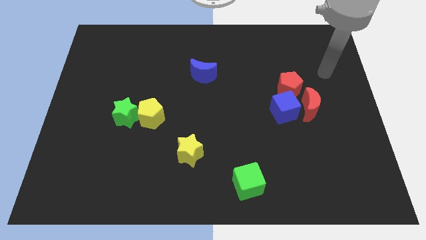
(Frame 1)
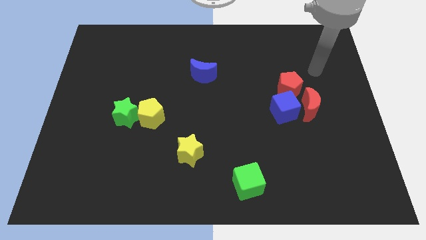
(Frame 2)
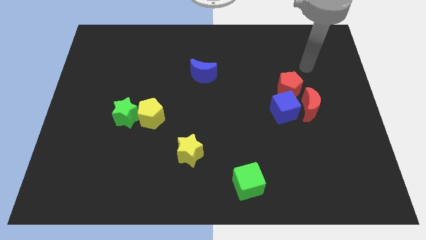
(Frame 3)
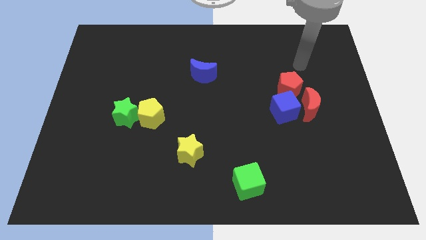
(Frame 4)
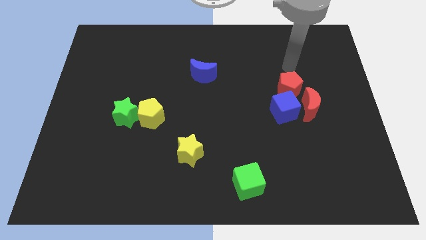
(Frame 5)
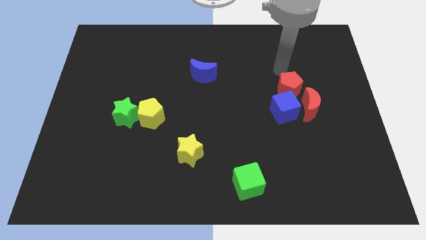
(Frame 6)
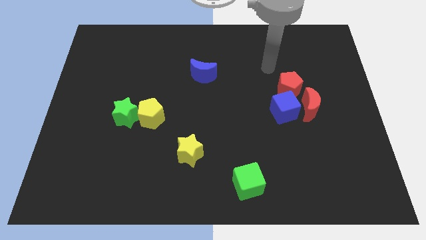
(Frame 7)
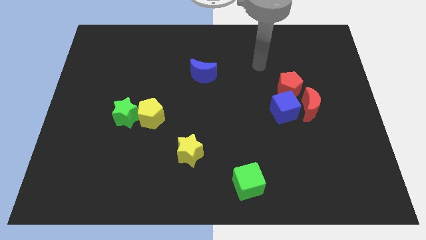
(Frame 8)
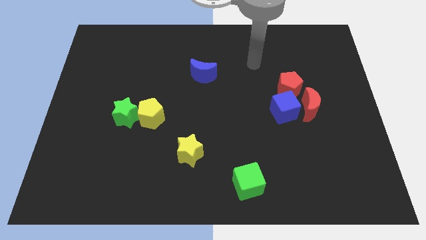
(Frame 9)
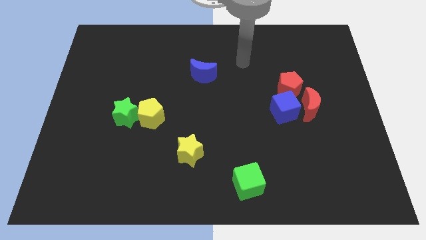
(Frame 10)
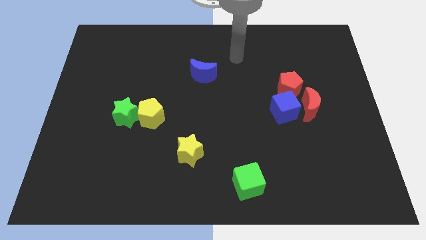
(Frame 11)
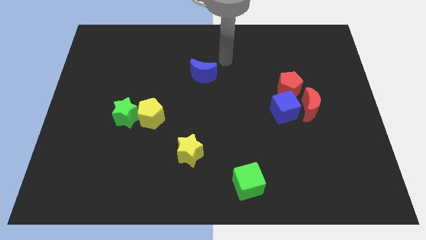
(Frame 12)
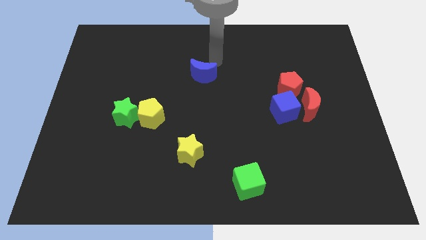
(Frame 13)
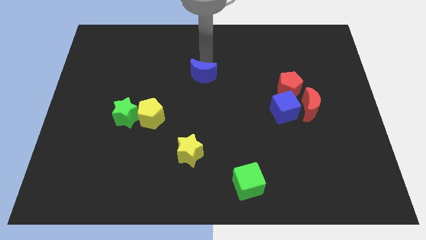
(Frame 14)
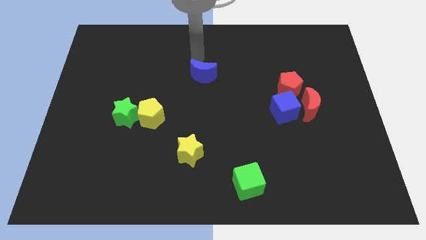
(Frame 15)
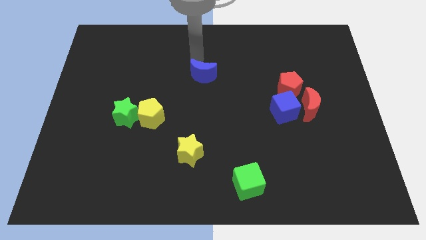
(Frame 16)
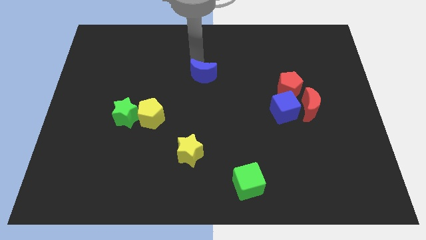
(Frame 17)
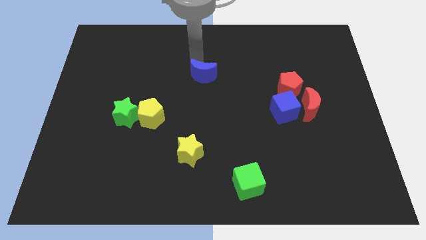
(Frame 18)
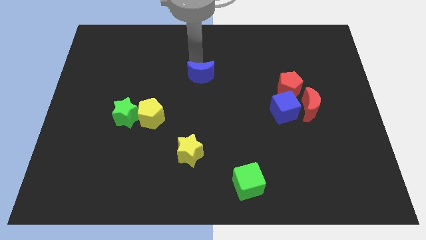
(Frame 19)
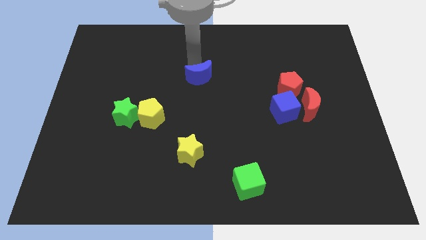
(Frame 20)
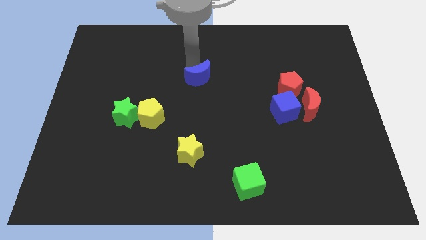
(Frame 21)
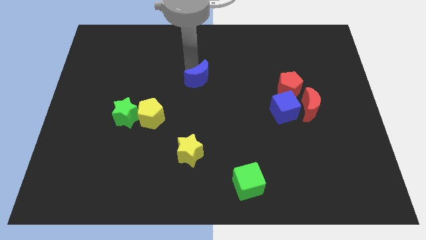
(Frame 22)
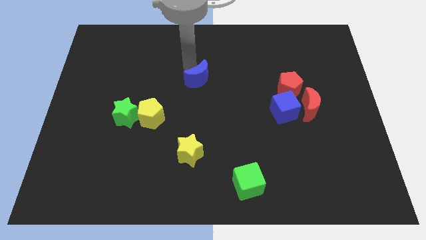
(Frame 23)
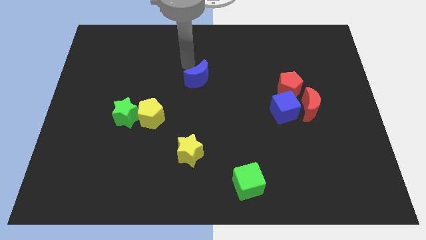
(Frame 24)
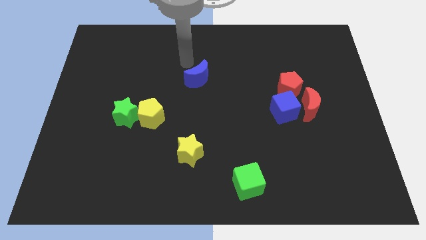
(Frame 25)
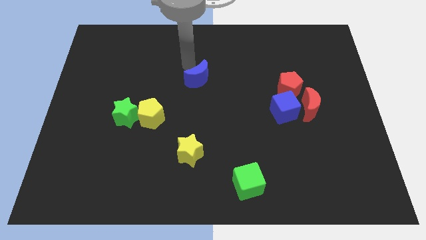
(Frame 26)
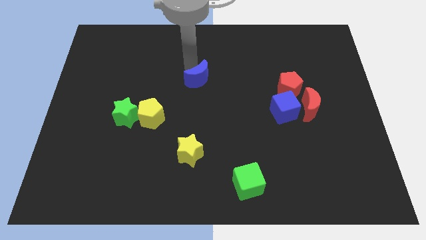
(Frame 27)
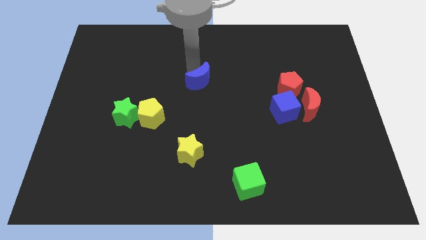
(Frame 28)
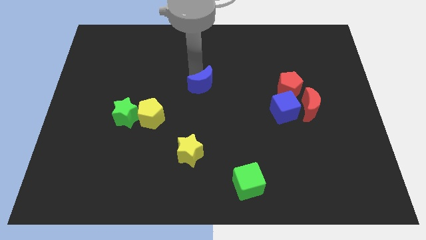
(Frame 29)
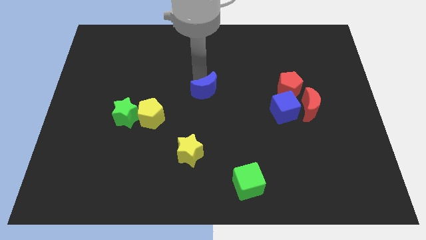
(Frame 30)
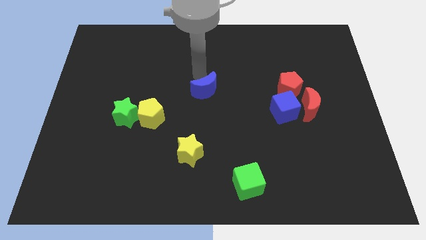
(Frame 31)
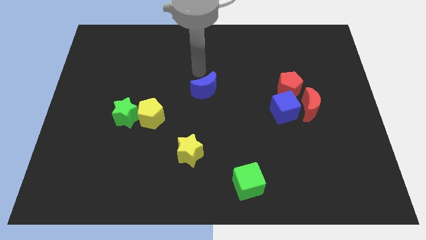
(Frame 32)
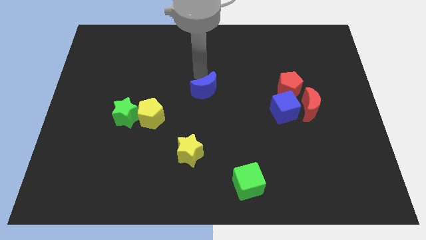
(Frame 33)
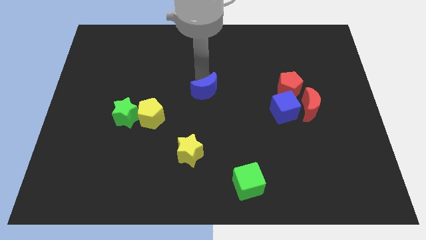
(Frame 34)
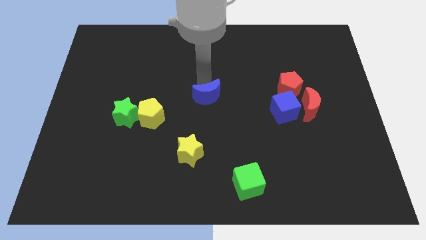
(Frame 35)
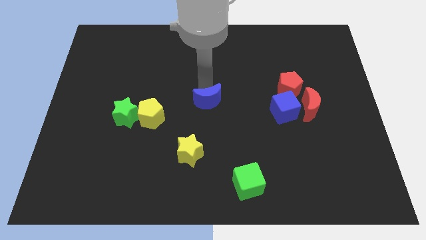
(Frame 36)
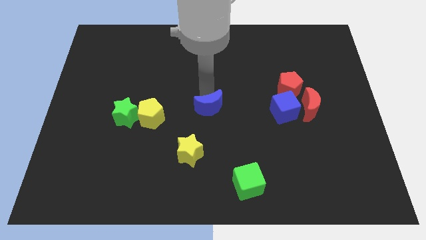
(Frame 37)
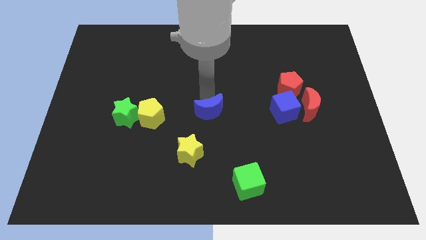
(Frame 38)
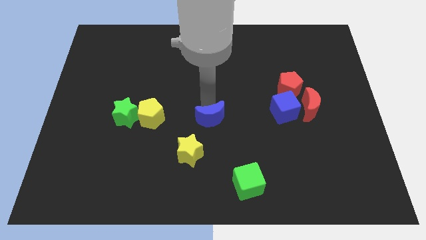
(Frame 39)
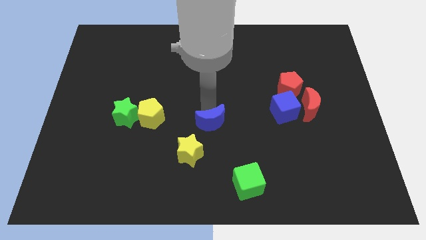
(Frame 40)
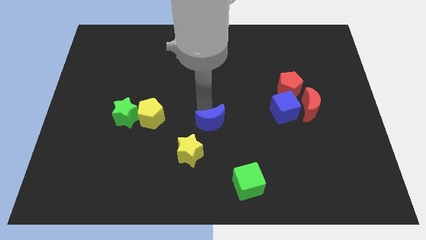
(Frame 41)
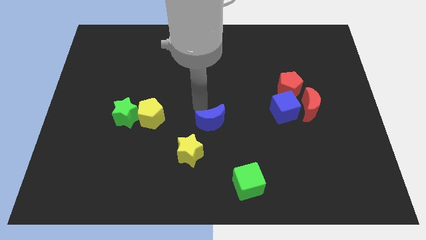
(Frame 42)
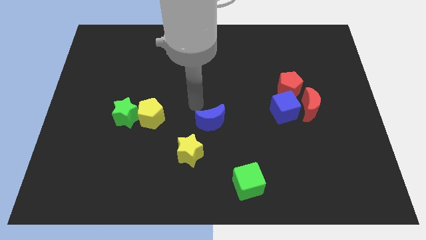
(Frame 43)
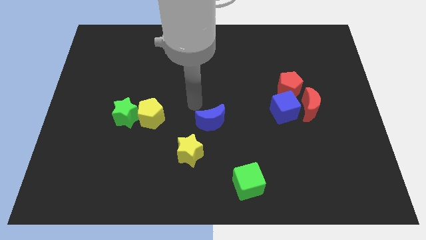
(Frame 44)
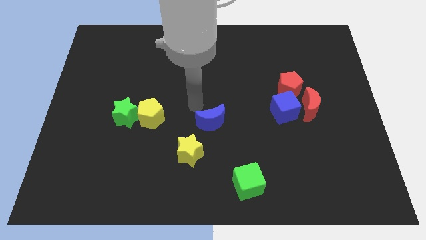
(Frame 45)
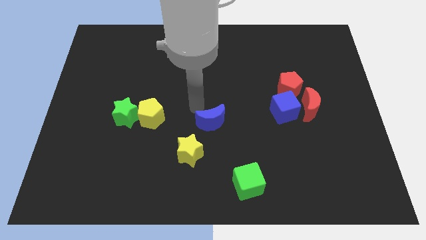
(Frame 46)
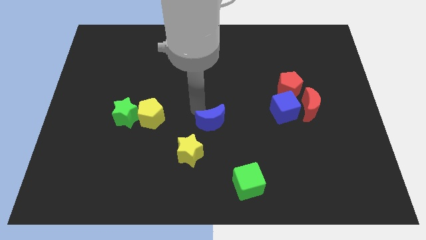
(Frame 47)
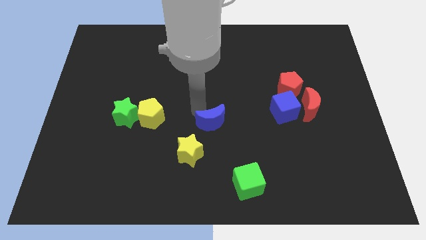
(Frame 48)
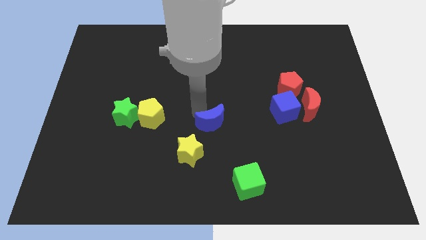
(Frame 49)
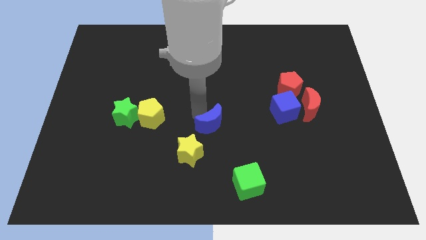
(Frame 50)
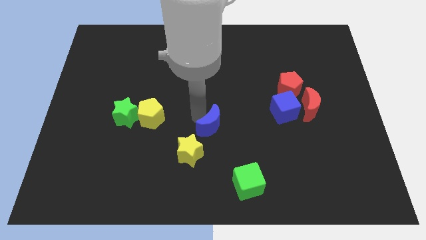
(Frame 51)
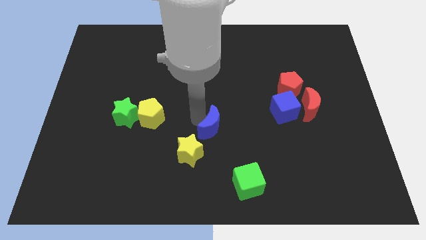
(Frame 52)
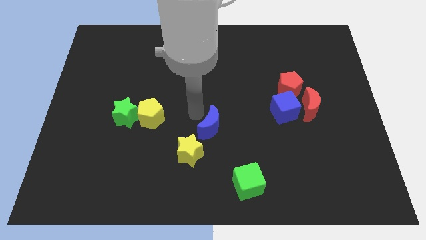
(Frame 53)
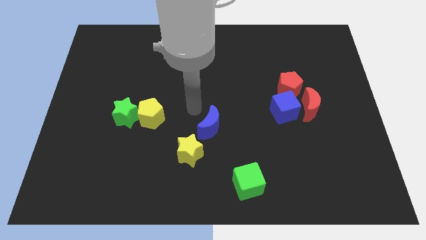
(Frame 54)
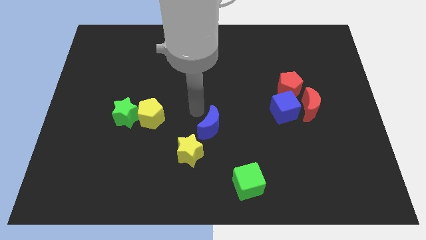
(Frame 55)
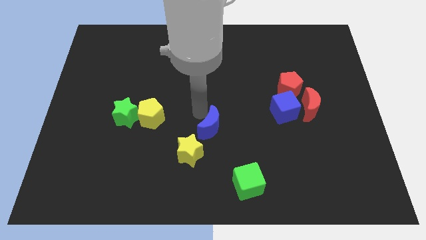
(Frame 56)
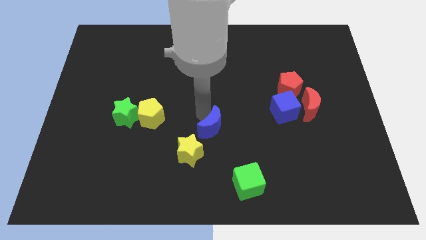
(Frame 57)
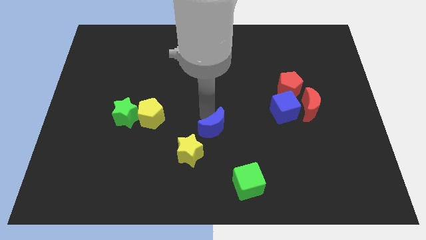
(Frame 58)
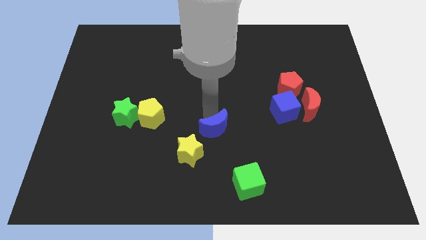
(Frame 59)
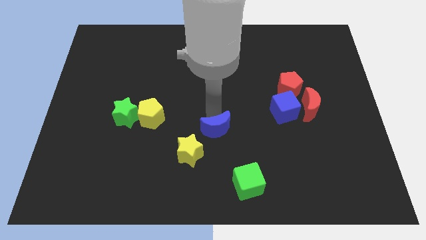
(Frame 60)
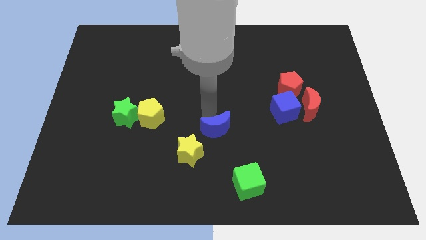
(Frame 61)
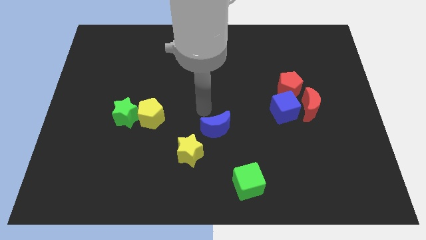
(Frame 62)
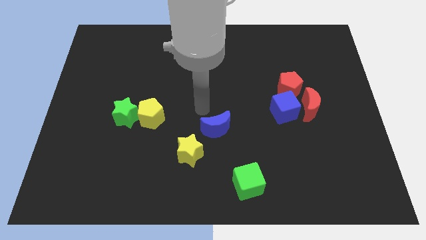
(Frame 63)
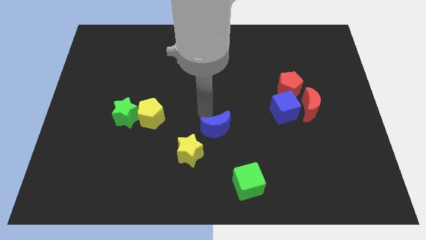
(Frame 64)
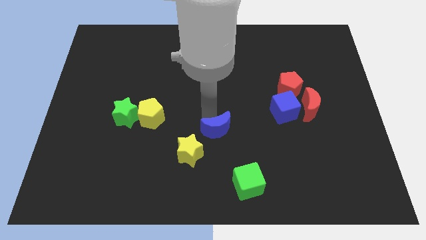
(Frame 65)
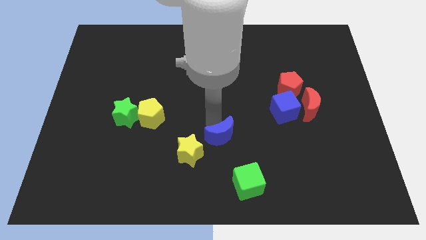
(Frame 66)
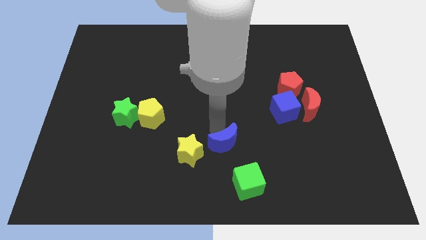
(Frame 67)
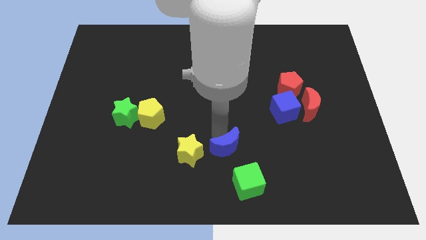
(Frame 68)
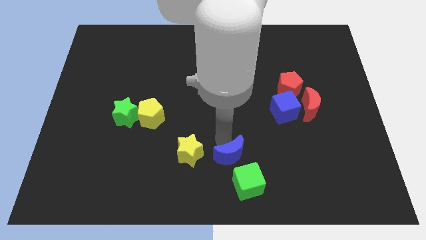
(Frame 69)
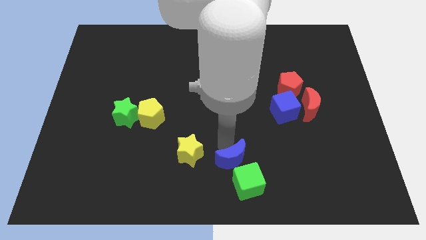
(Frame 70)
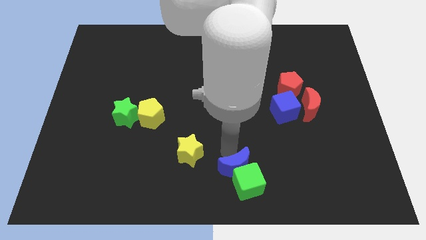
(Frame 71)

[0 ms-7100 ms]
move the blue moon to the green cube

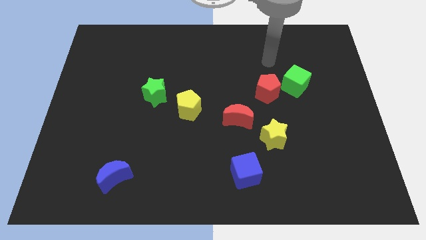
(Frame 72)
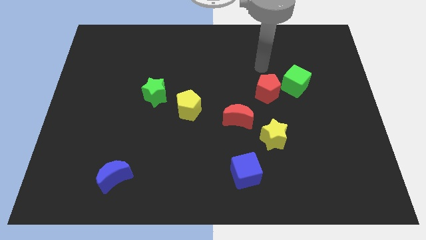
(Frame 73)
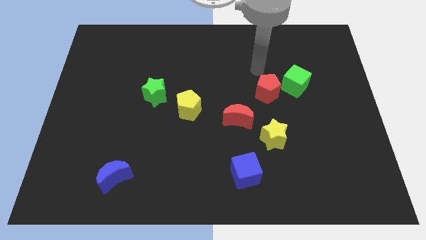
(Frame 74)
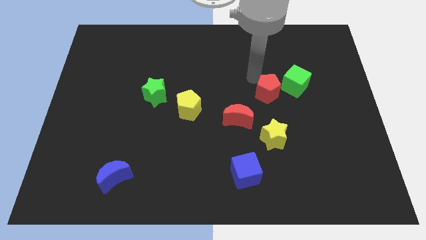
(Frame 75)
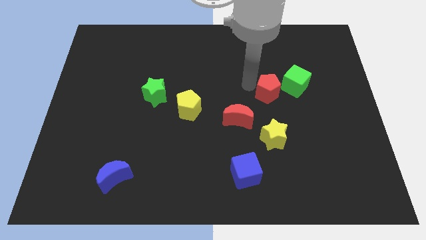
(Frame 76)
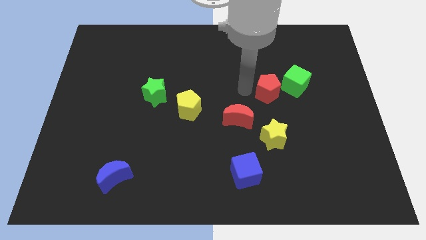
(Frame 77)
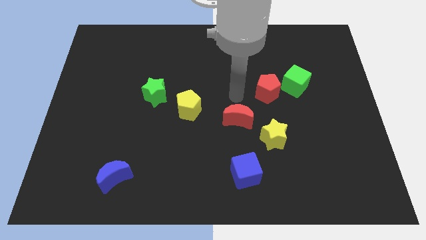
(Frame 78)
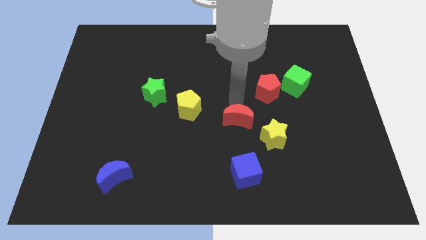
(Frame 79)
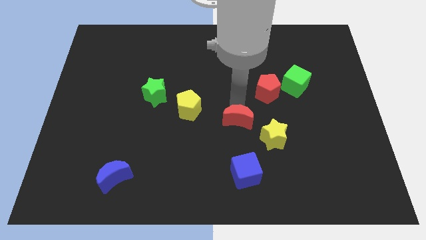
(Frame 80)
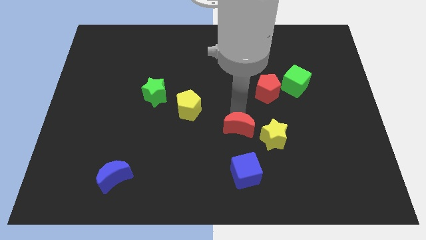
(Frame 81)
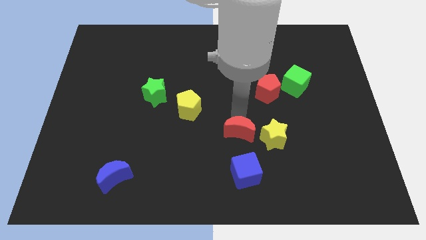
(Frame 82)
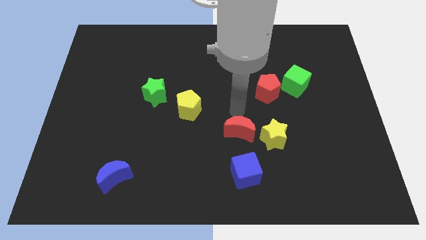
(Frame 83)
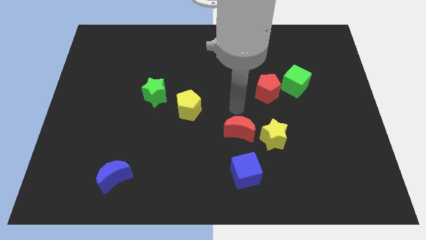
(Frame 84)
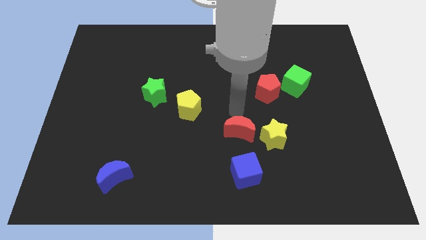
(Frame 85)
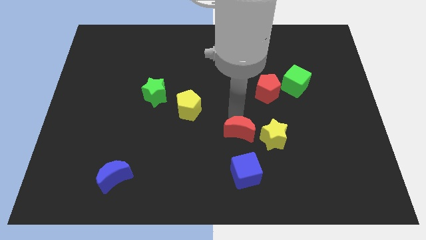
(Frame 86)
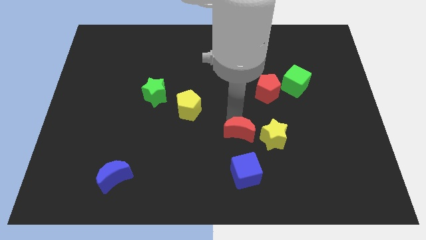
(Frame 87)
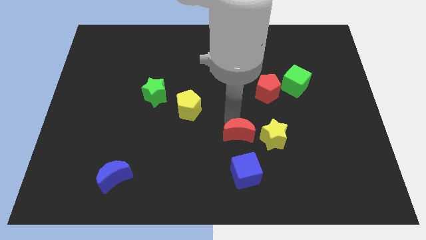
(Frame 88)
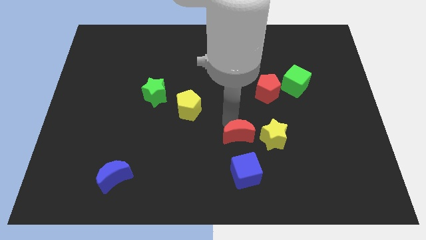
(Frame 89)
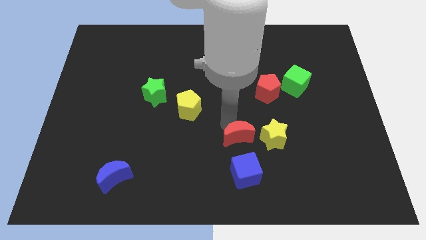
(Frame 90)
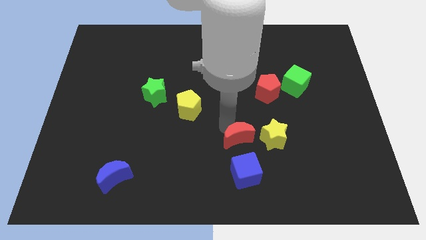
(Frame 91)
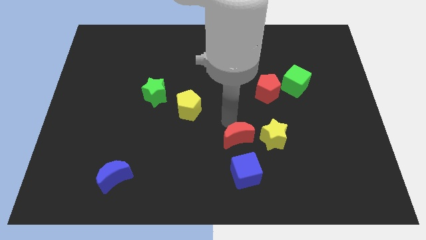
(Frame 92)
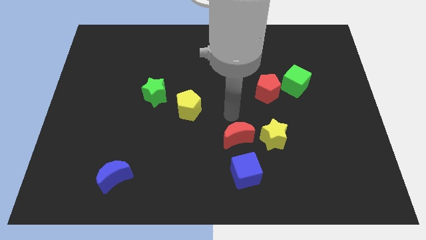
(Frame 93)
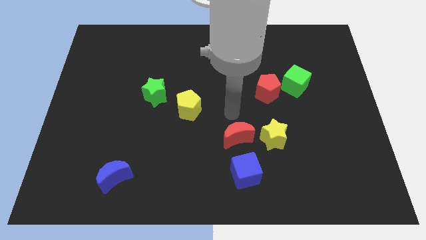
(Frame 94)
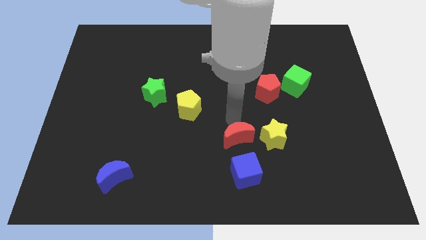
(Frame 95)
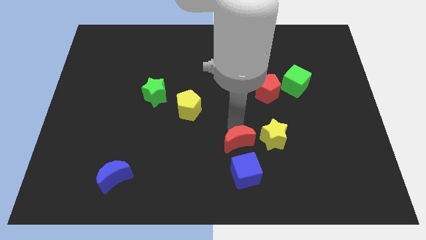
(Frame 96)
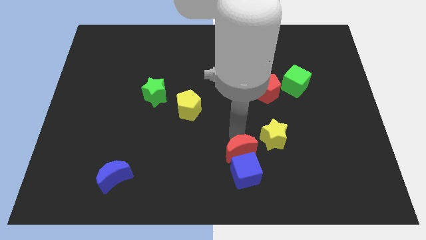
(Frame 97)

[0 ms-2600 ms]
push the red moon to the blue cube
